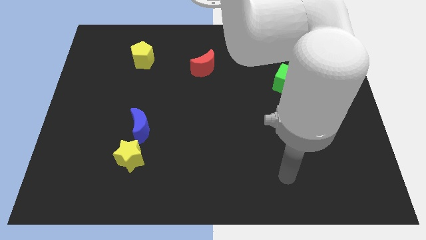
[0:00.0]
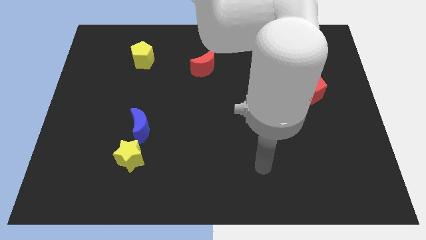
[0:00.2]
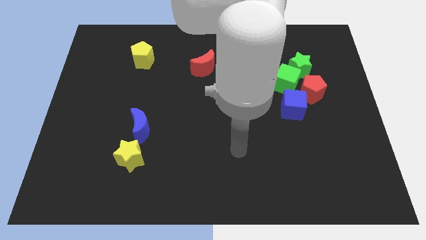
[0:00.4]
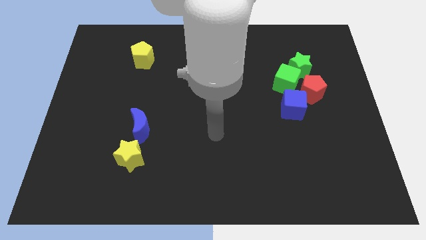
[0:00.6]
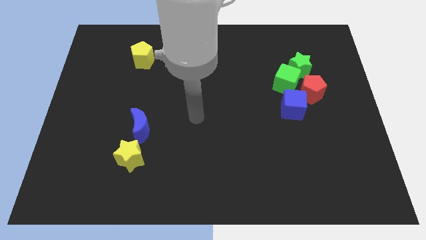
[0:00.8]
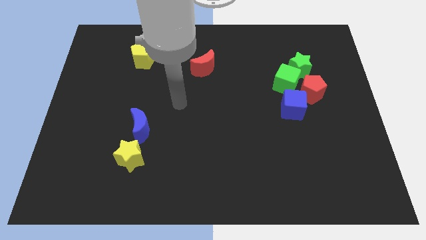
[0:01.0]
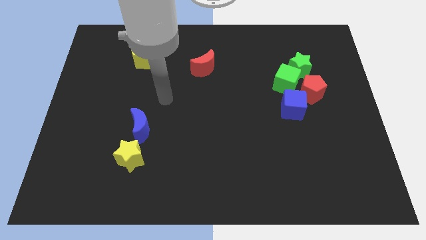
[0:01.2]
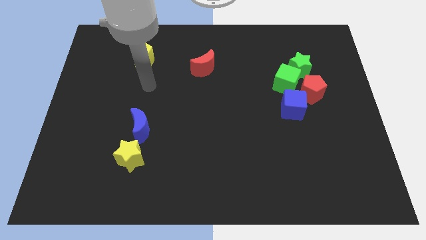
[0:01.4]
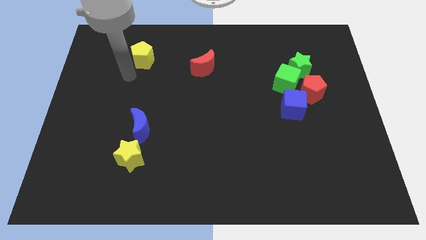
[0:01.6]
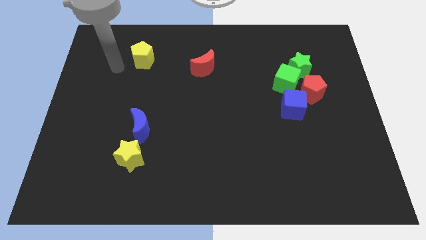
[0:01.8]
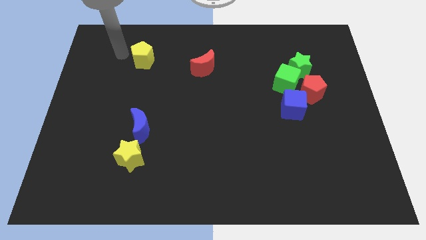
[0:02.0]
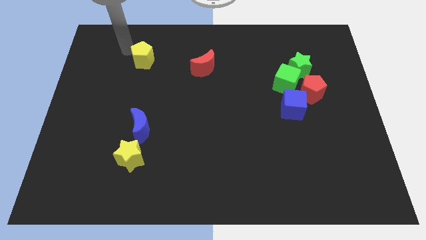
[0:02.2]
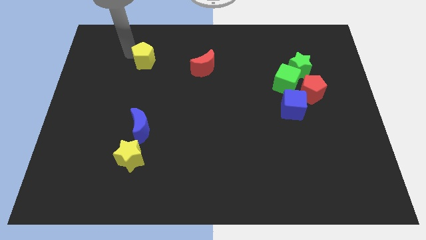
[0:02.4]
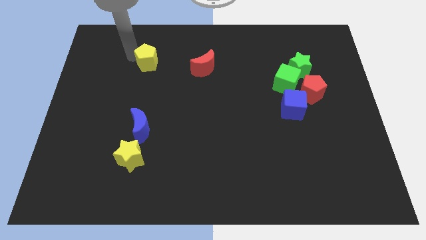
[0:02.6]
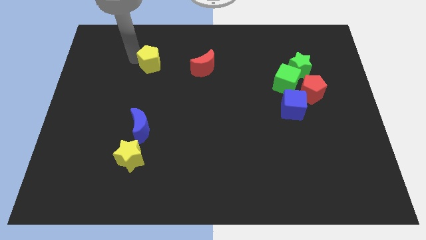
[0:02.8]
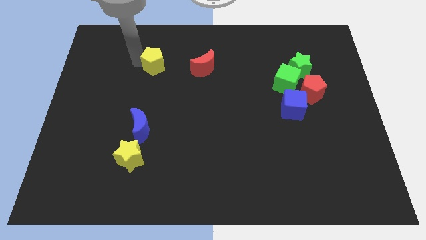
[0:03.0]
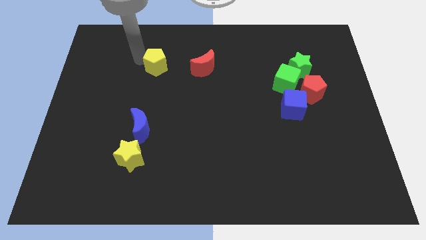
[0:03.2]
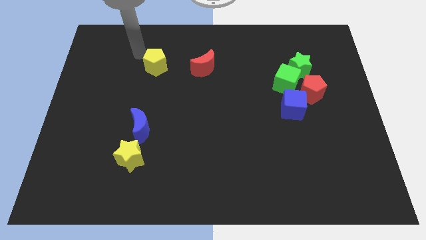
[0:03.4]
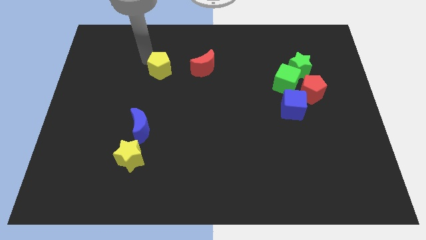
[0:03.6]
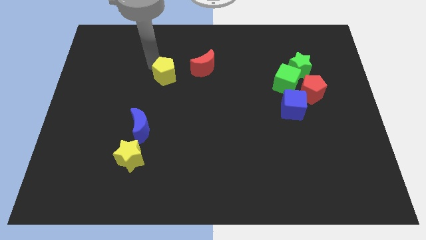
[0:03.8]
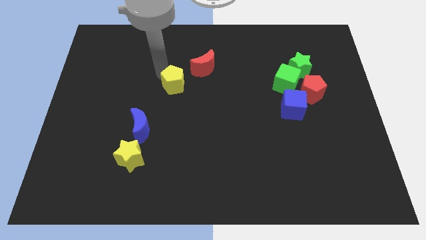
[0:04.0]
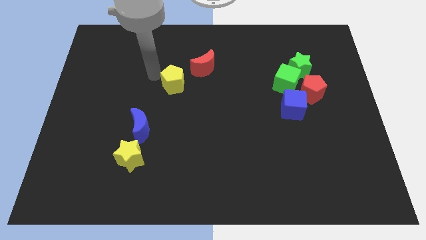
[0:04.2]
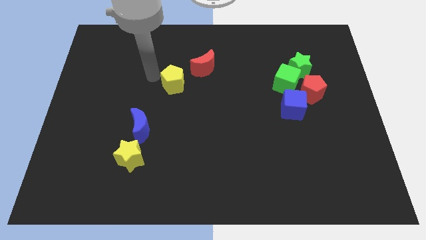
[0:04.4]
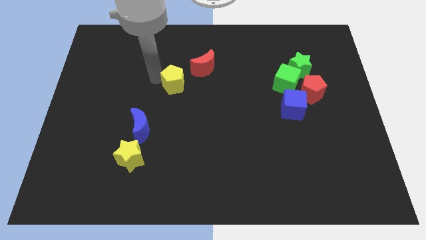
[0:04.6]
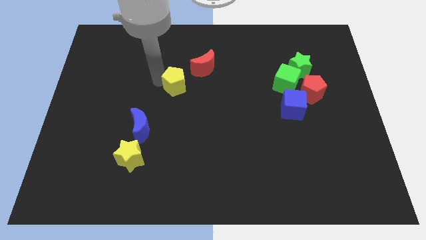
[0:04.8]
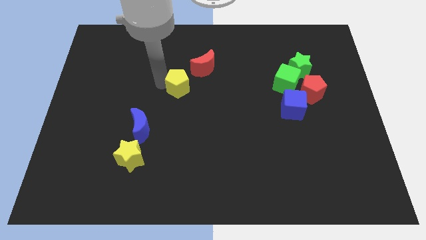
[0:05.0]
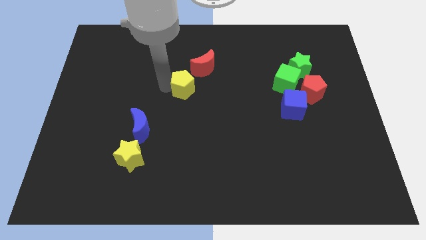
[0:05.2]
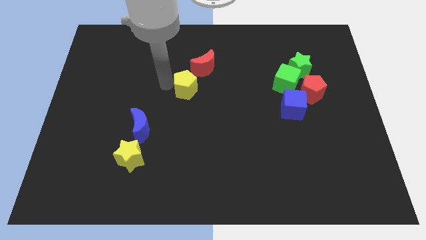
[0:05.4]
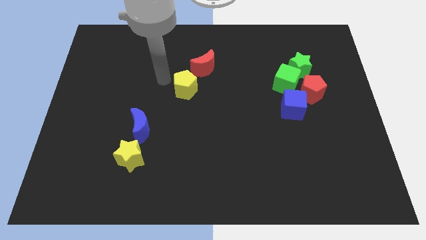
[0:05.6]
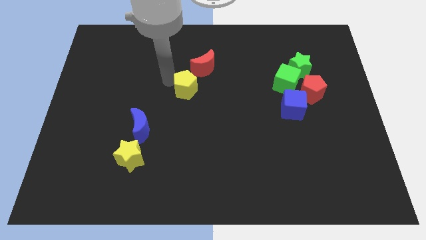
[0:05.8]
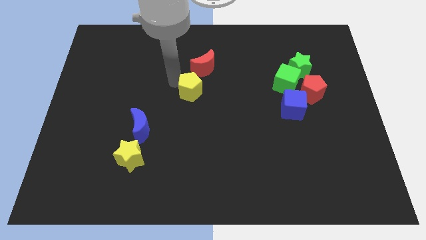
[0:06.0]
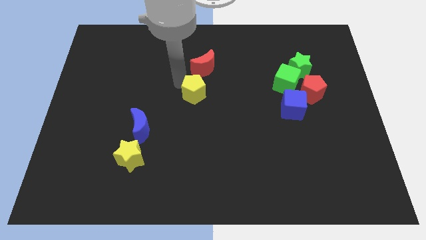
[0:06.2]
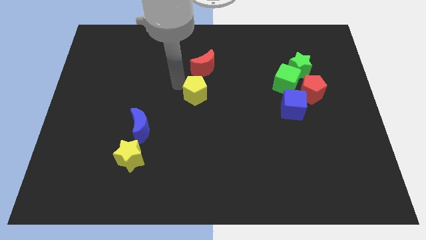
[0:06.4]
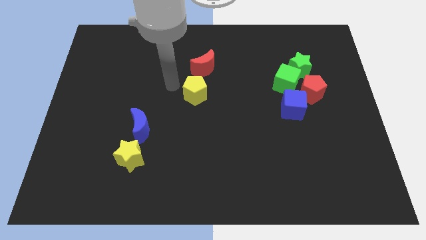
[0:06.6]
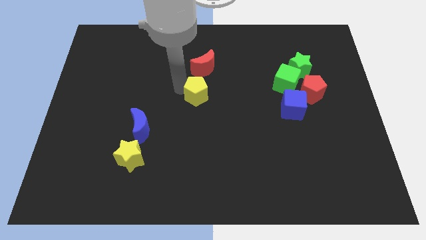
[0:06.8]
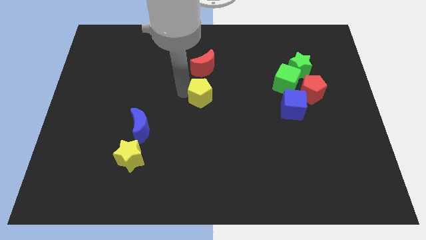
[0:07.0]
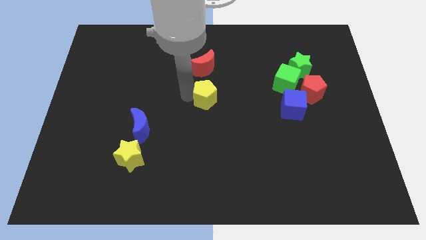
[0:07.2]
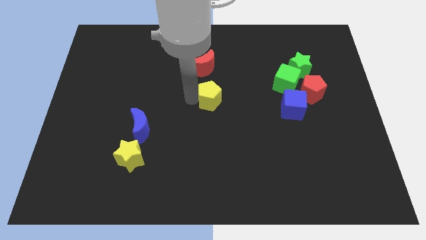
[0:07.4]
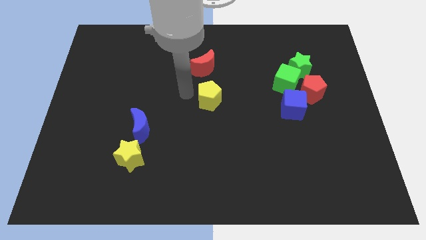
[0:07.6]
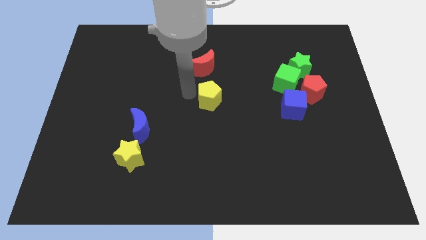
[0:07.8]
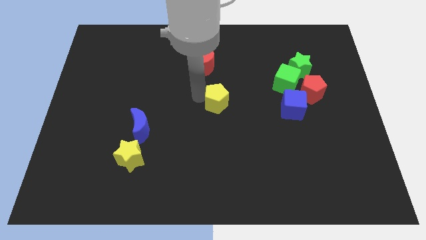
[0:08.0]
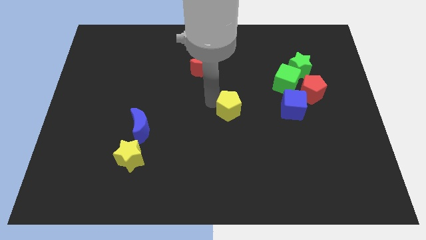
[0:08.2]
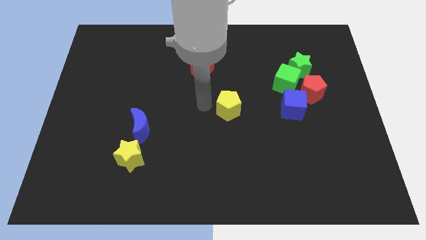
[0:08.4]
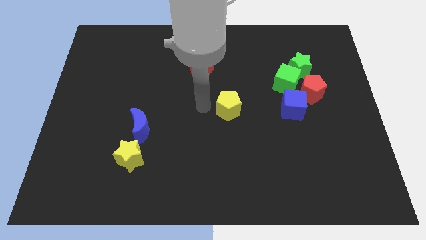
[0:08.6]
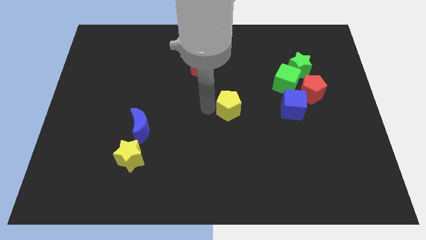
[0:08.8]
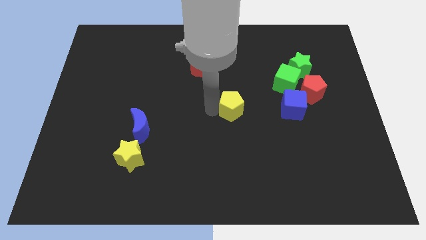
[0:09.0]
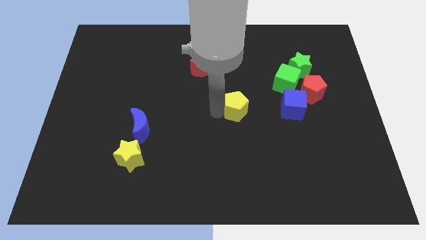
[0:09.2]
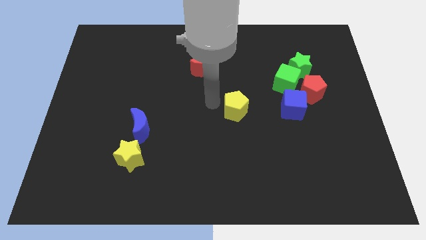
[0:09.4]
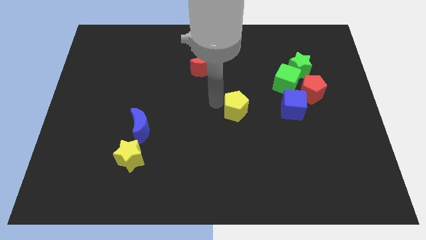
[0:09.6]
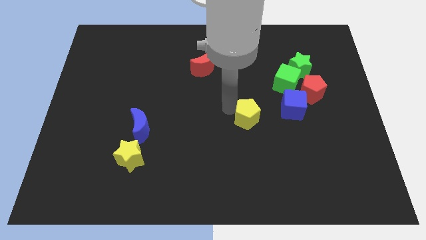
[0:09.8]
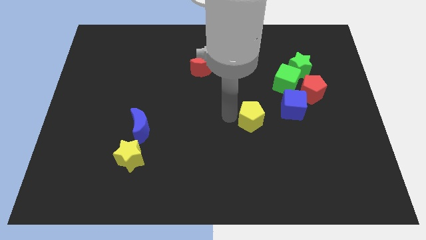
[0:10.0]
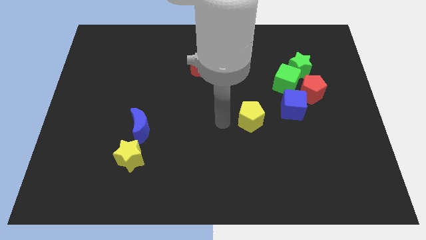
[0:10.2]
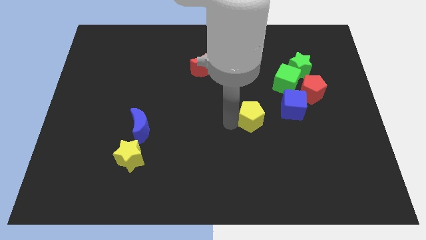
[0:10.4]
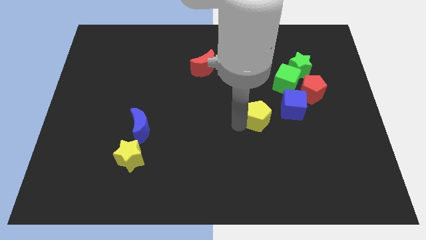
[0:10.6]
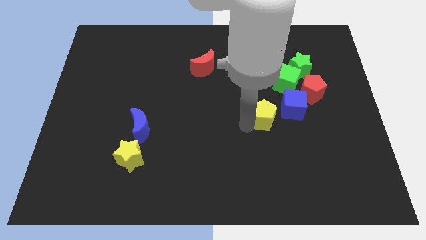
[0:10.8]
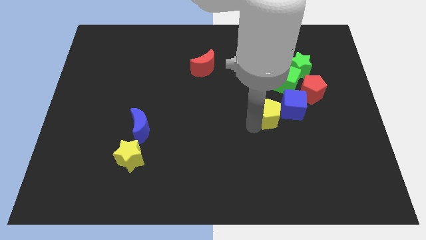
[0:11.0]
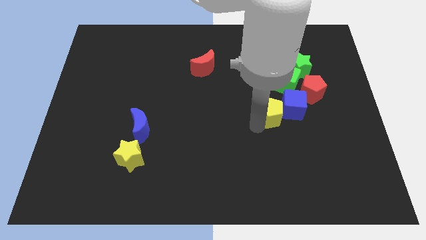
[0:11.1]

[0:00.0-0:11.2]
move the yellow pentagon below the green cube
